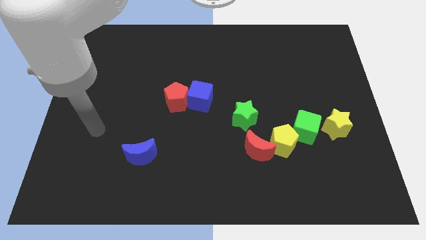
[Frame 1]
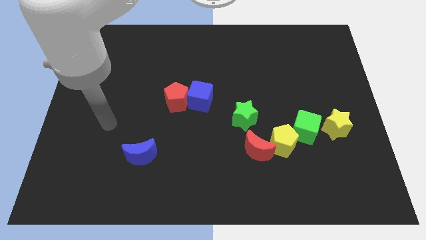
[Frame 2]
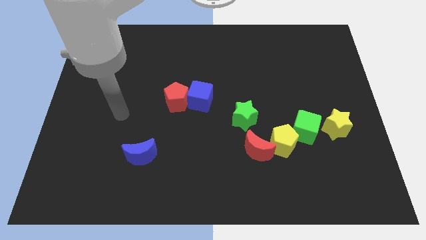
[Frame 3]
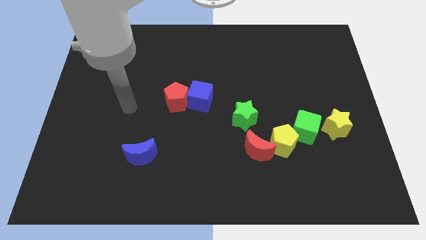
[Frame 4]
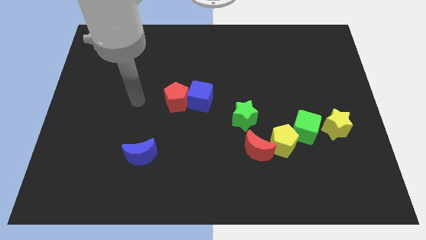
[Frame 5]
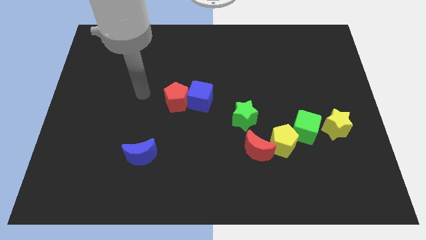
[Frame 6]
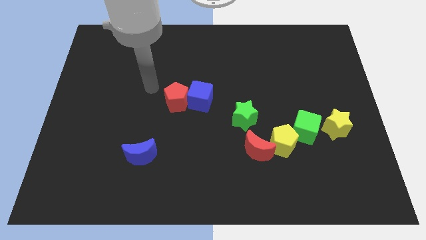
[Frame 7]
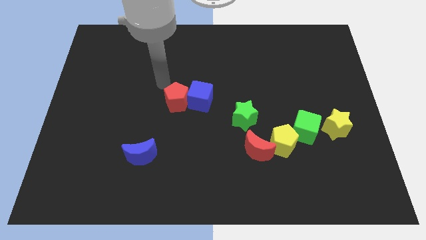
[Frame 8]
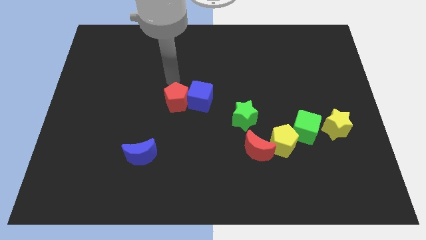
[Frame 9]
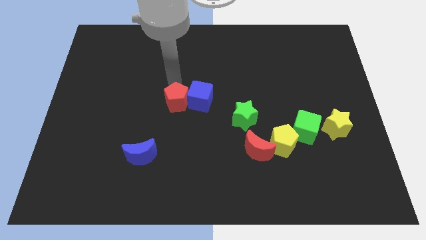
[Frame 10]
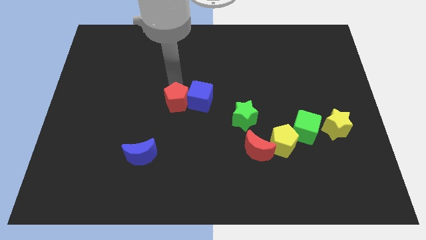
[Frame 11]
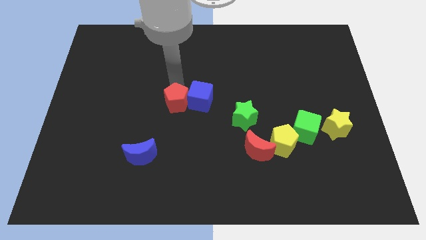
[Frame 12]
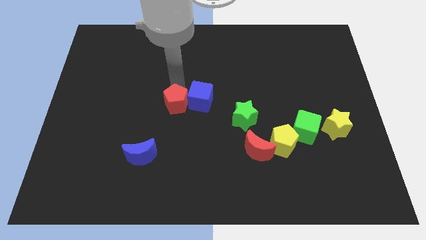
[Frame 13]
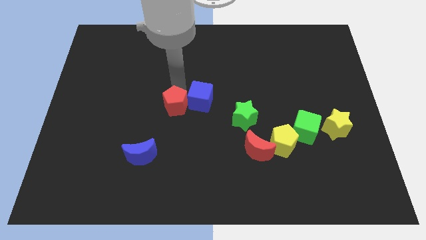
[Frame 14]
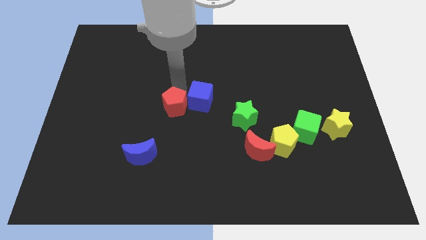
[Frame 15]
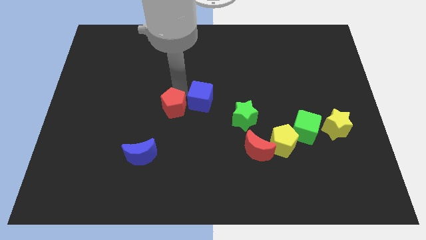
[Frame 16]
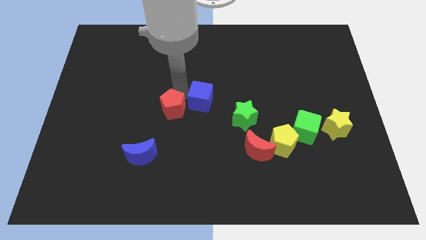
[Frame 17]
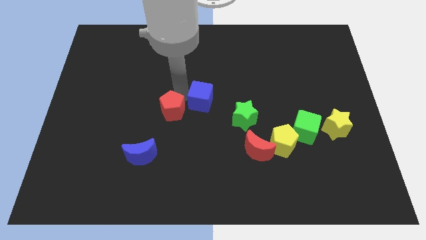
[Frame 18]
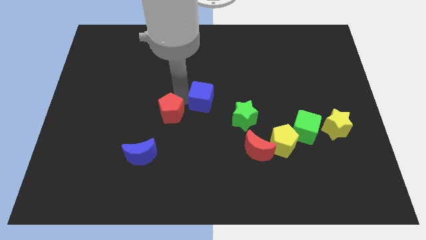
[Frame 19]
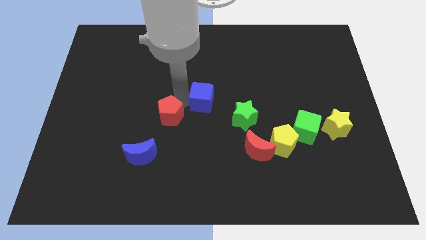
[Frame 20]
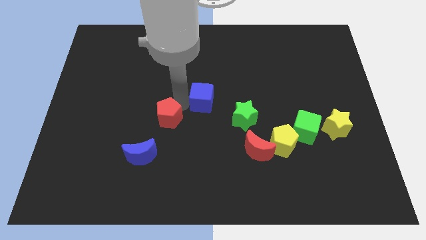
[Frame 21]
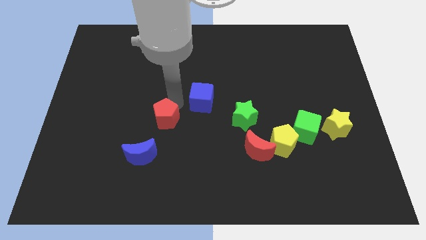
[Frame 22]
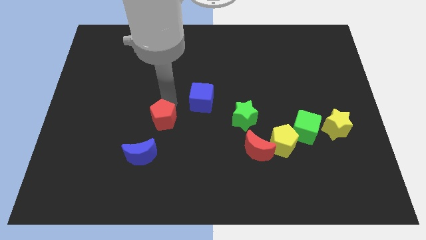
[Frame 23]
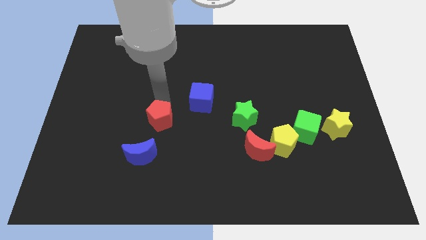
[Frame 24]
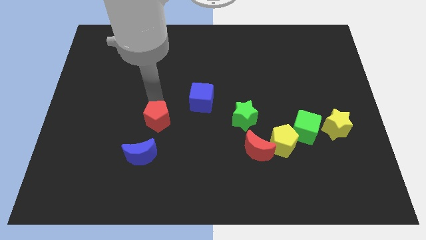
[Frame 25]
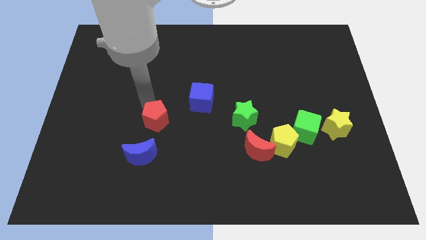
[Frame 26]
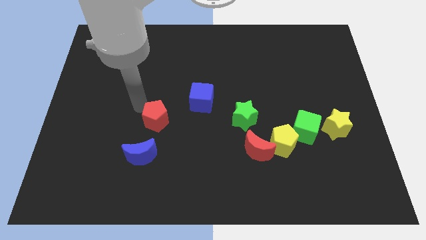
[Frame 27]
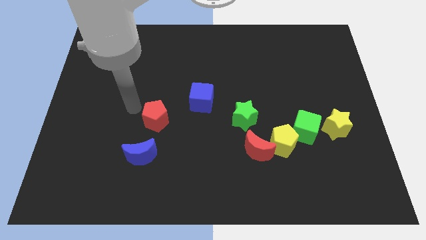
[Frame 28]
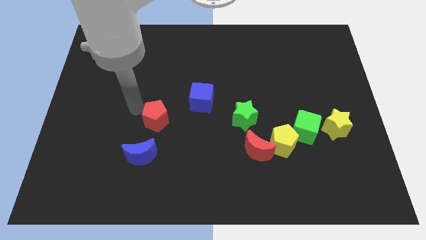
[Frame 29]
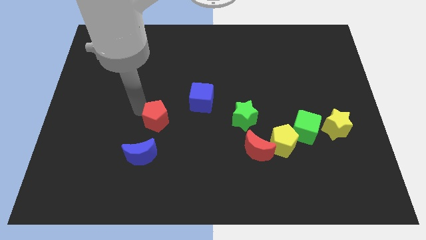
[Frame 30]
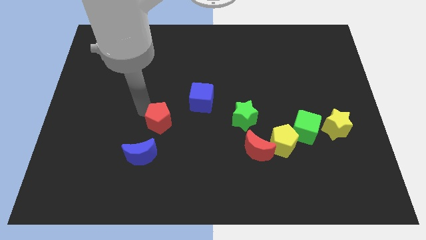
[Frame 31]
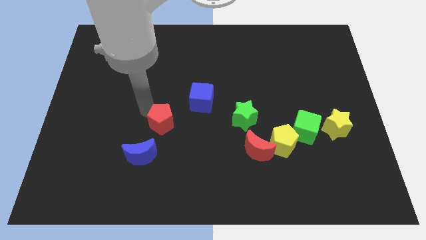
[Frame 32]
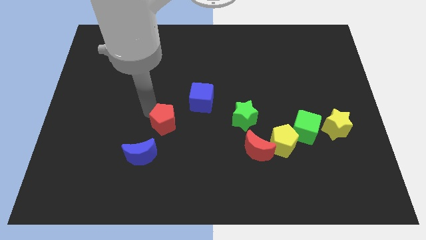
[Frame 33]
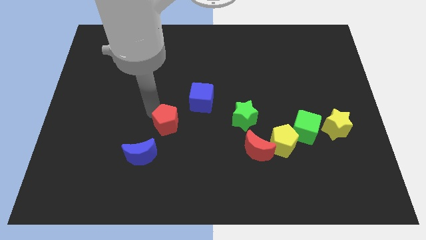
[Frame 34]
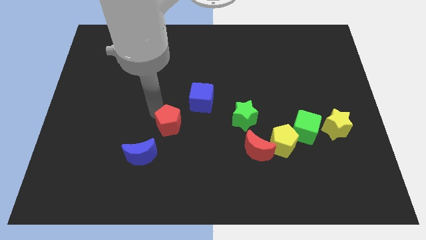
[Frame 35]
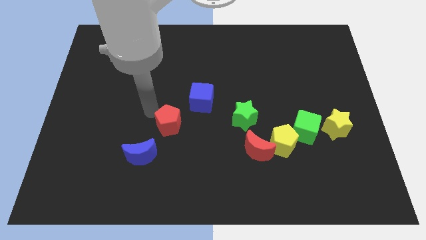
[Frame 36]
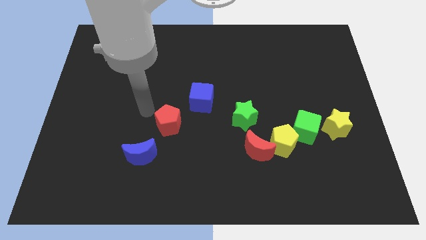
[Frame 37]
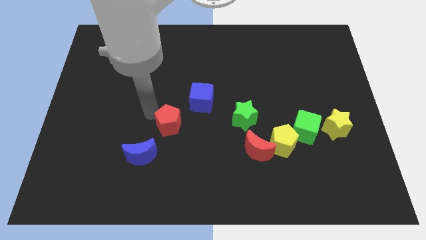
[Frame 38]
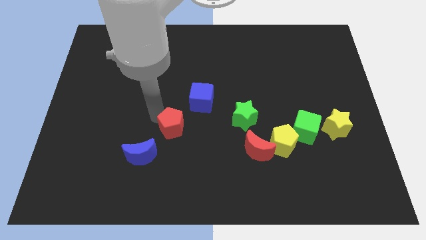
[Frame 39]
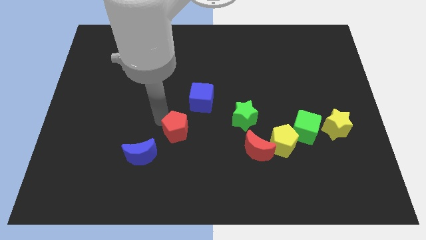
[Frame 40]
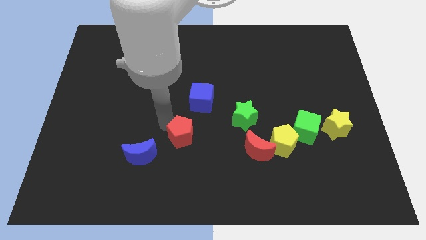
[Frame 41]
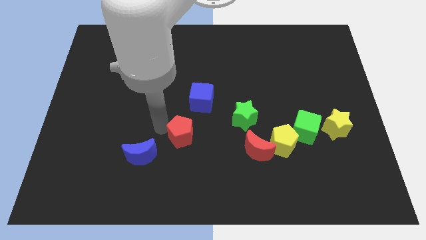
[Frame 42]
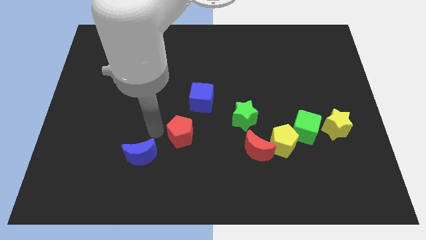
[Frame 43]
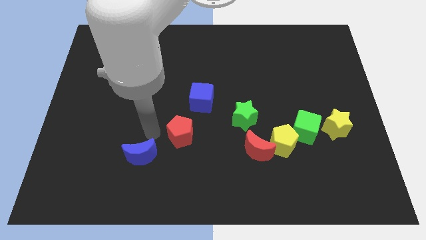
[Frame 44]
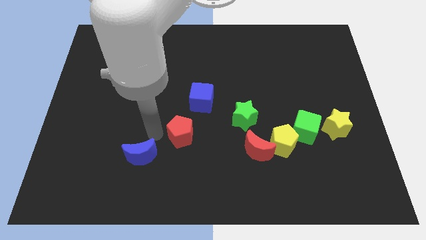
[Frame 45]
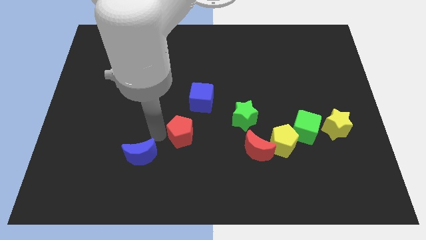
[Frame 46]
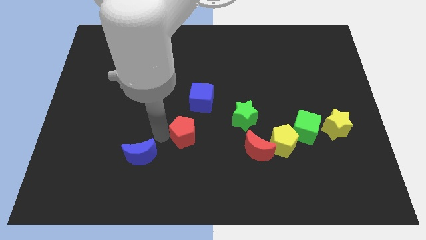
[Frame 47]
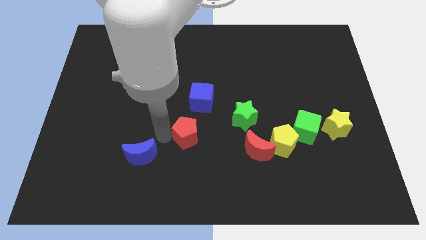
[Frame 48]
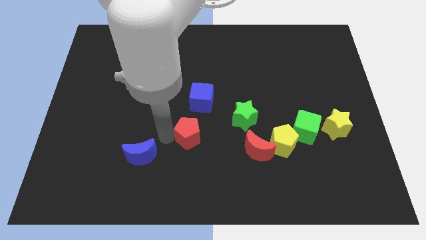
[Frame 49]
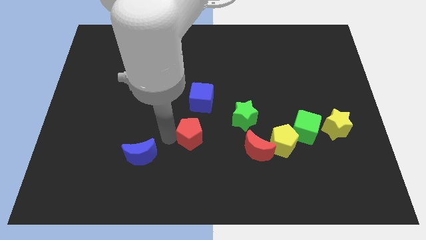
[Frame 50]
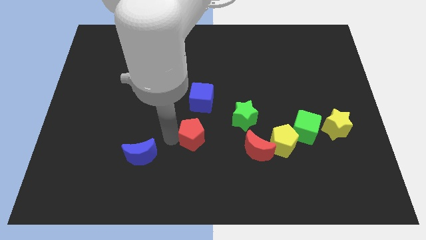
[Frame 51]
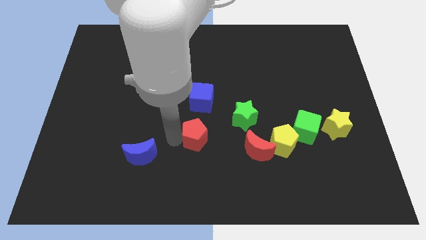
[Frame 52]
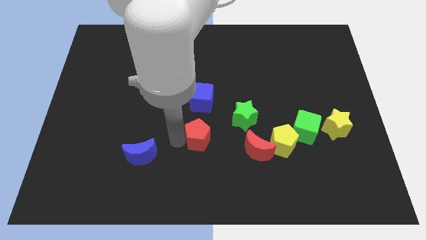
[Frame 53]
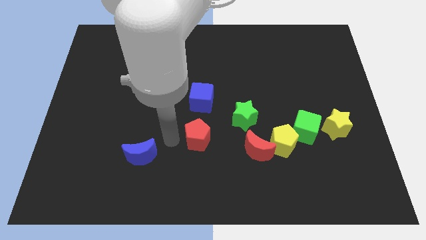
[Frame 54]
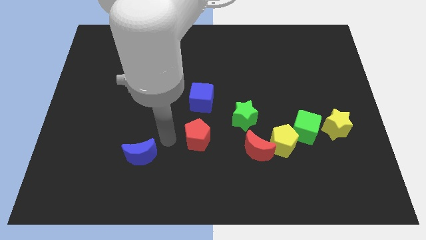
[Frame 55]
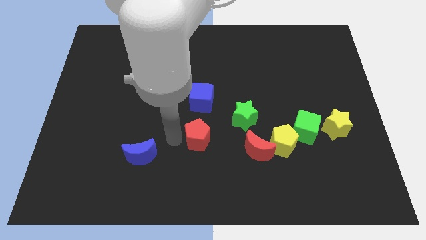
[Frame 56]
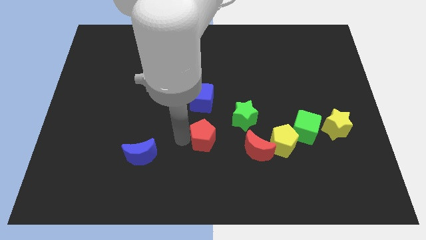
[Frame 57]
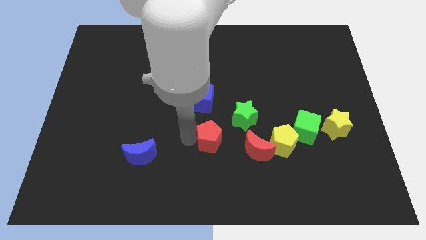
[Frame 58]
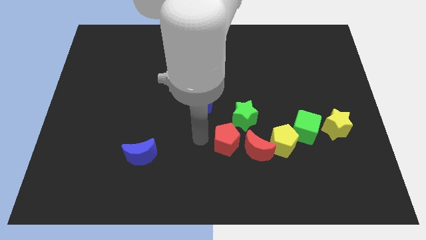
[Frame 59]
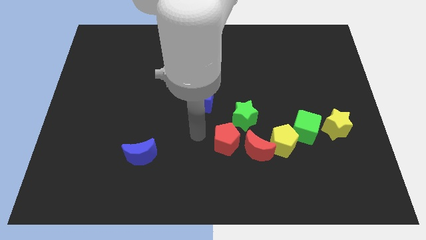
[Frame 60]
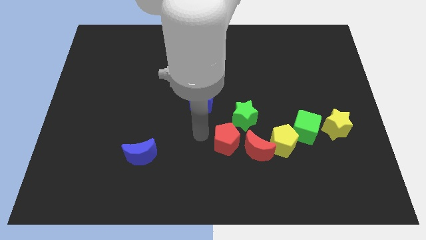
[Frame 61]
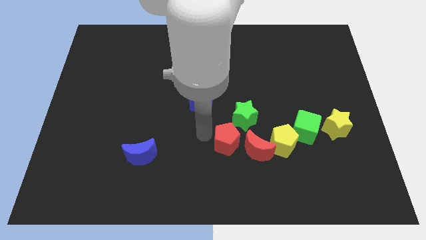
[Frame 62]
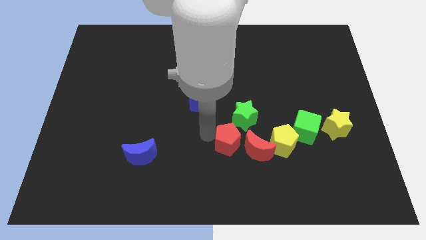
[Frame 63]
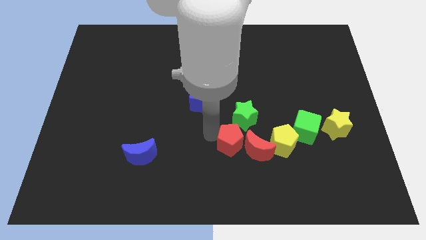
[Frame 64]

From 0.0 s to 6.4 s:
slide the red pentagon towards the red moon

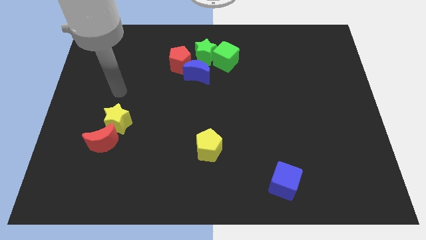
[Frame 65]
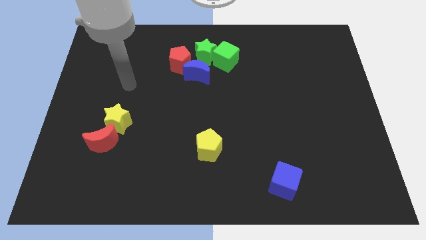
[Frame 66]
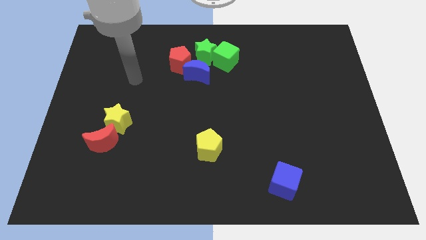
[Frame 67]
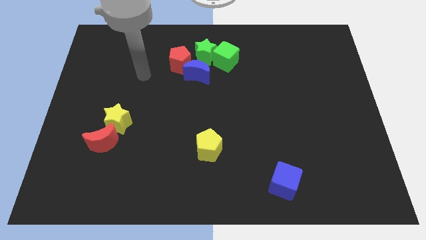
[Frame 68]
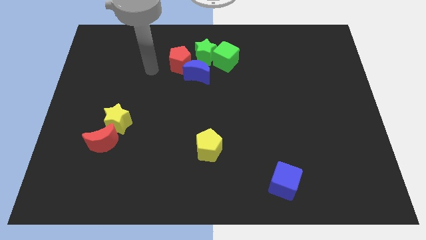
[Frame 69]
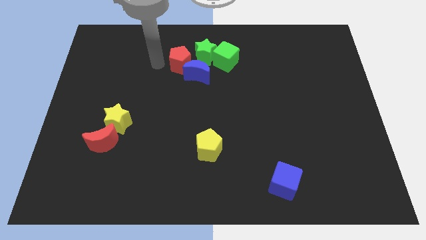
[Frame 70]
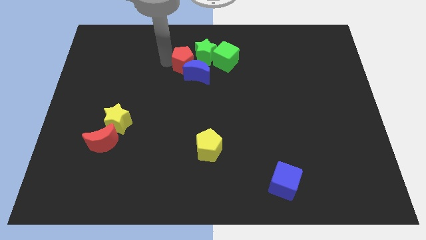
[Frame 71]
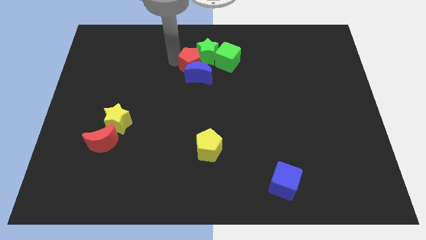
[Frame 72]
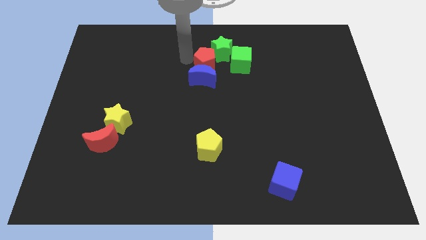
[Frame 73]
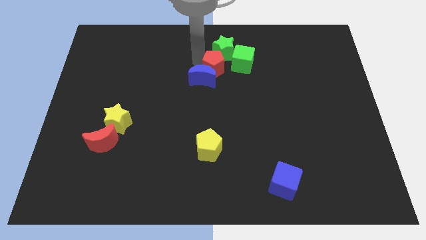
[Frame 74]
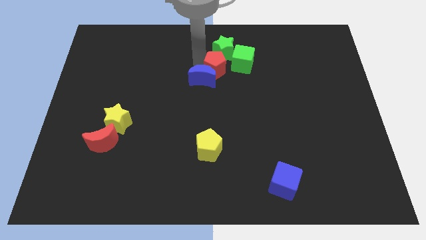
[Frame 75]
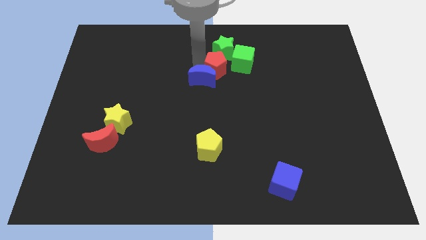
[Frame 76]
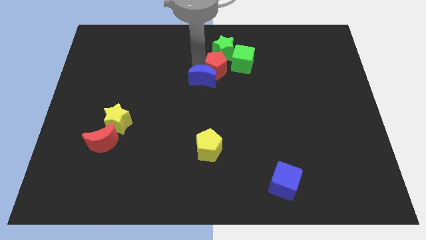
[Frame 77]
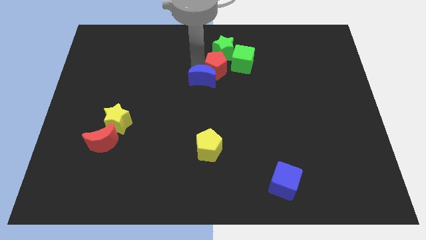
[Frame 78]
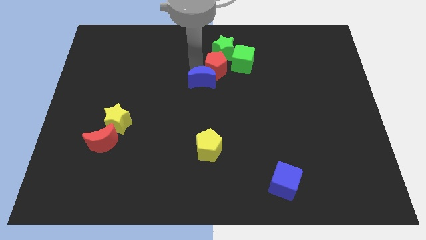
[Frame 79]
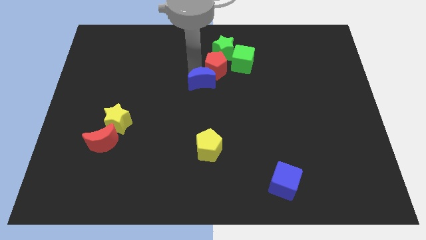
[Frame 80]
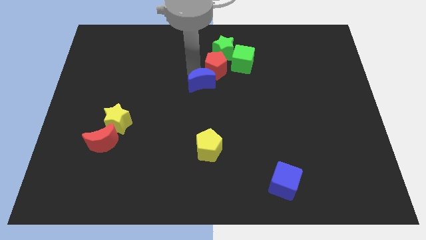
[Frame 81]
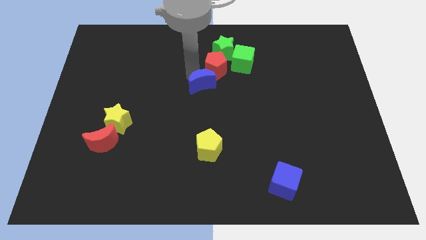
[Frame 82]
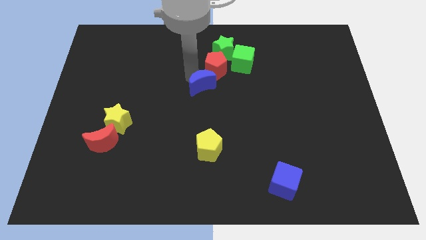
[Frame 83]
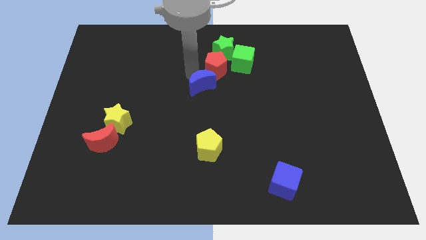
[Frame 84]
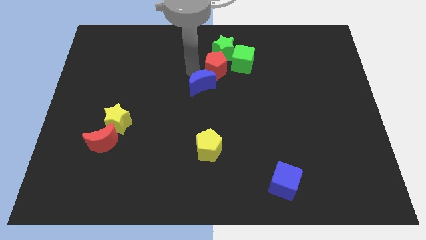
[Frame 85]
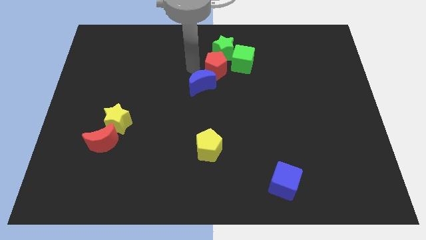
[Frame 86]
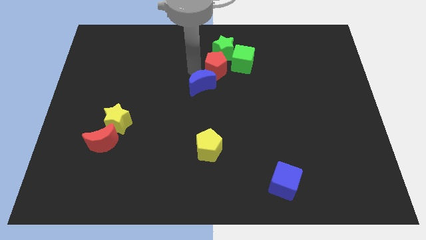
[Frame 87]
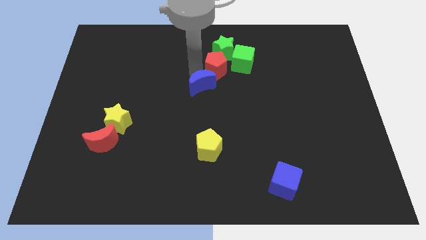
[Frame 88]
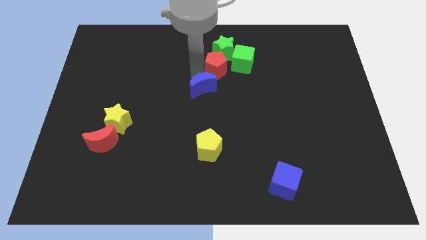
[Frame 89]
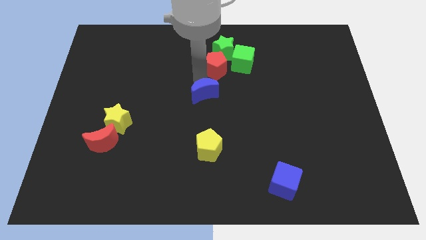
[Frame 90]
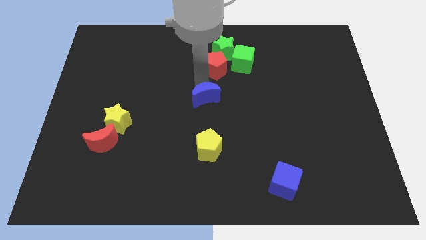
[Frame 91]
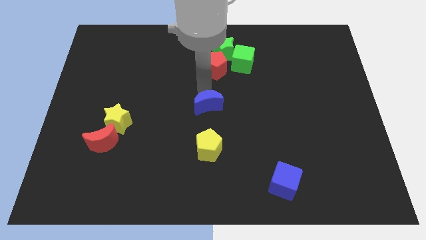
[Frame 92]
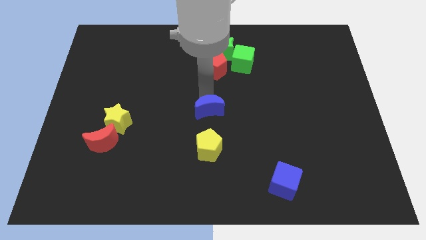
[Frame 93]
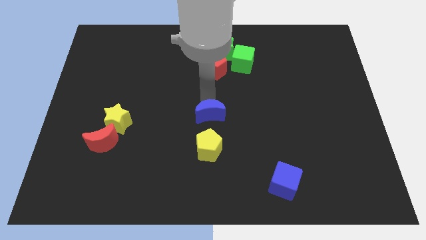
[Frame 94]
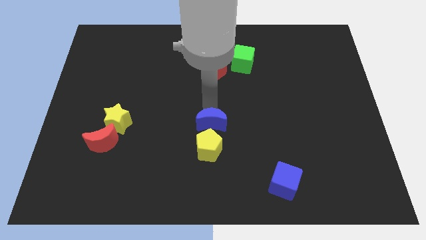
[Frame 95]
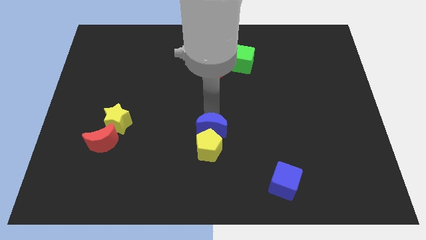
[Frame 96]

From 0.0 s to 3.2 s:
slide the blue moon towards the yellow pentagon
